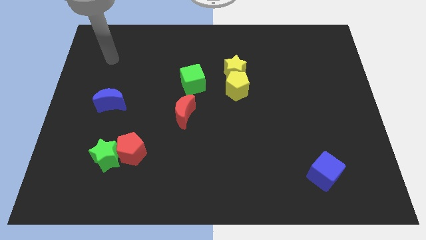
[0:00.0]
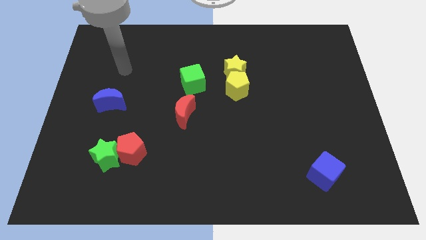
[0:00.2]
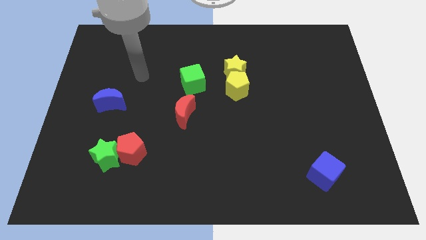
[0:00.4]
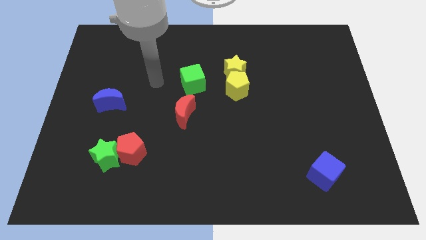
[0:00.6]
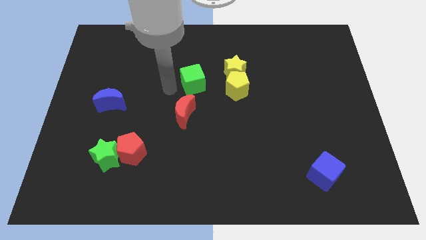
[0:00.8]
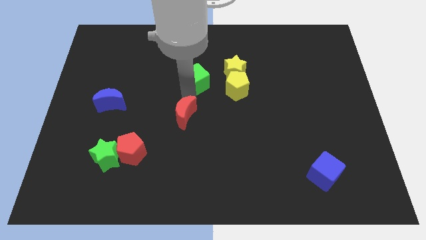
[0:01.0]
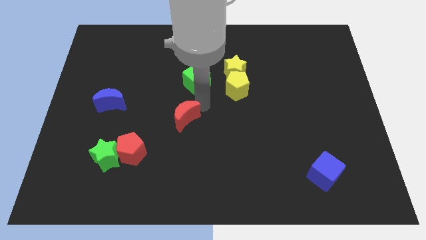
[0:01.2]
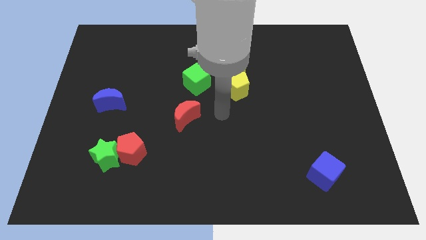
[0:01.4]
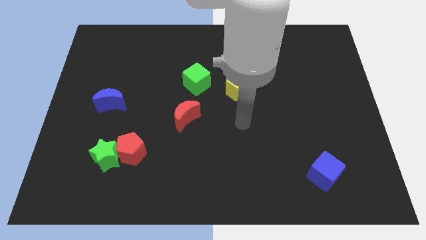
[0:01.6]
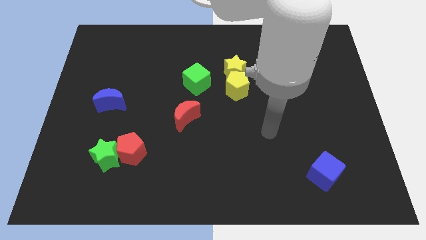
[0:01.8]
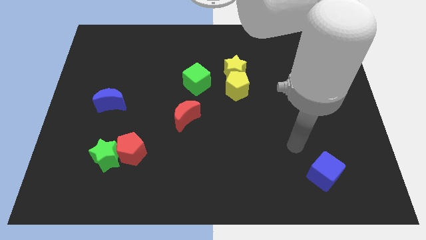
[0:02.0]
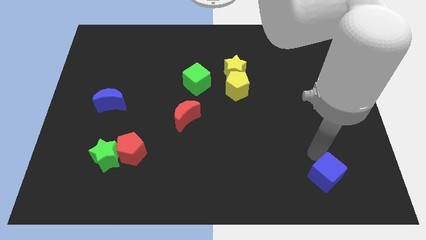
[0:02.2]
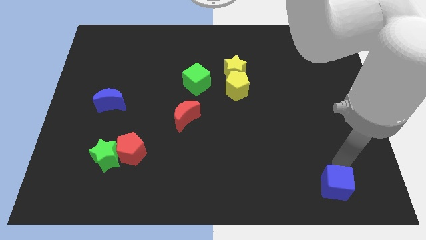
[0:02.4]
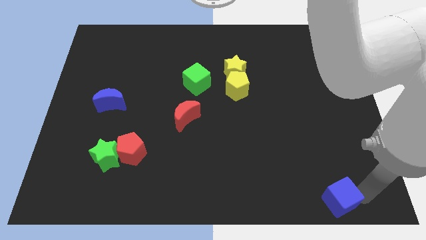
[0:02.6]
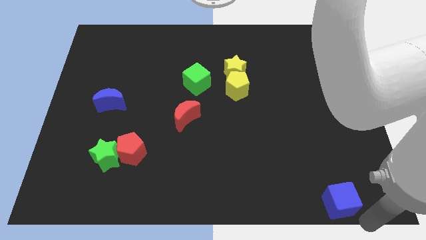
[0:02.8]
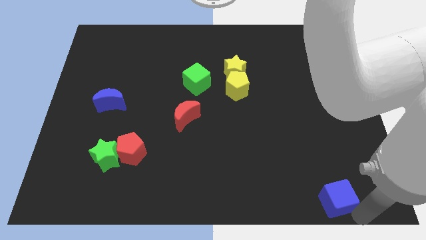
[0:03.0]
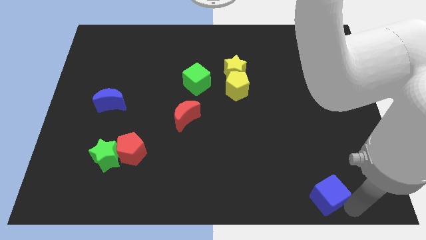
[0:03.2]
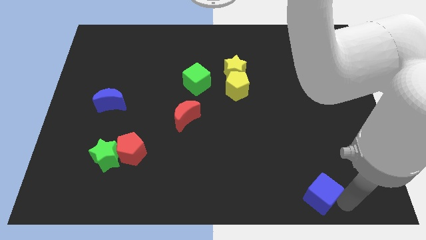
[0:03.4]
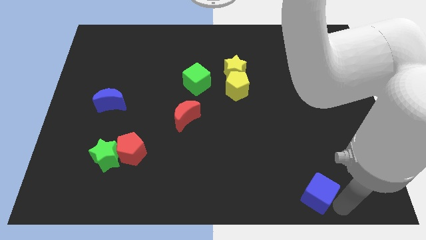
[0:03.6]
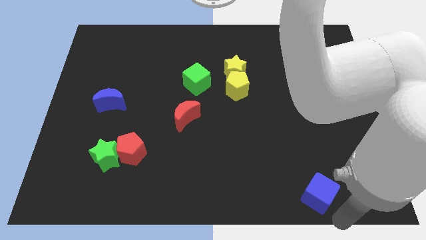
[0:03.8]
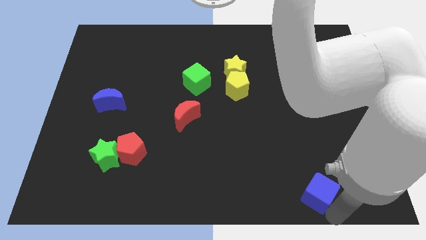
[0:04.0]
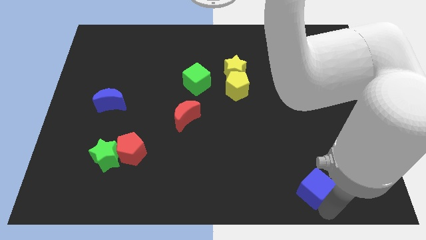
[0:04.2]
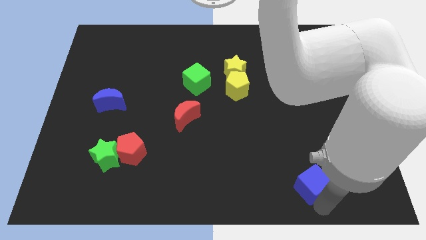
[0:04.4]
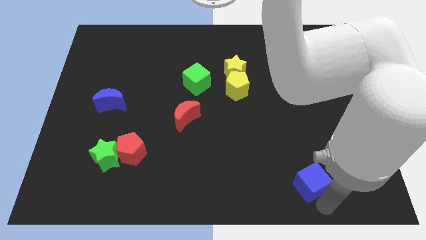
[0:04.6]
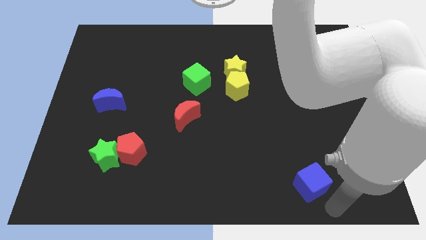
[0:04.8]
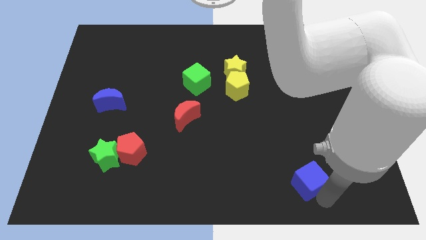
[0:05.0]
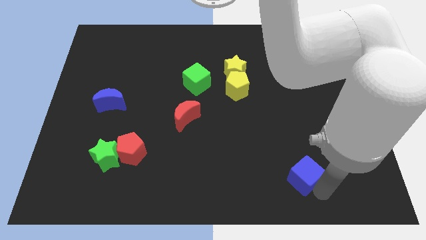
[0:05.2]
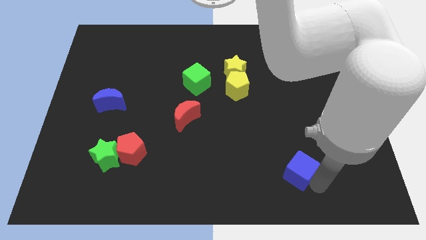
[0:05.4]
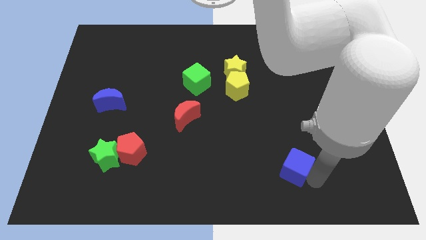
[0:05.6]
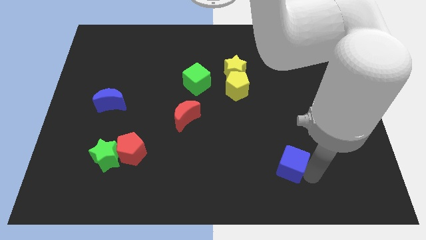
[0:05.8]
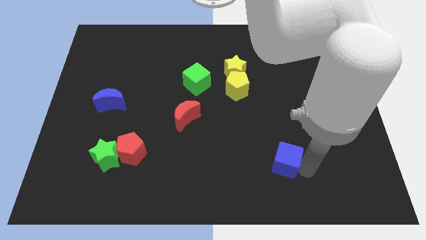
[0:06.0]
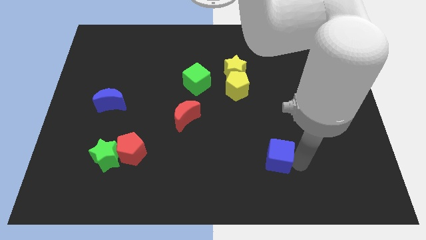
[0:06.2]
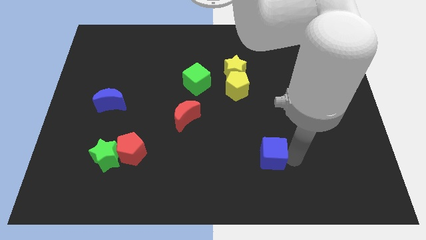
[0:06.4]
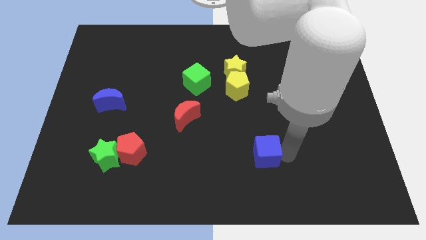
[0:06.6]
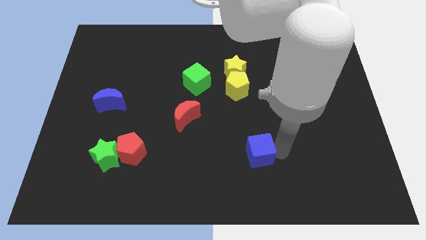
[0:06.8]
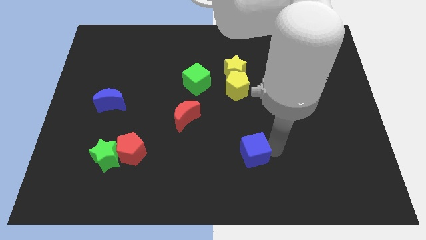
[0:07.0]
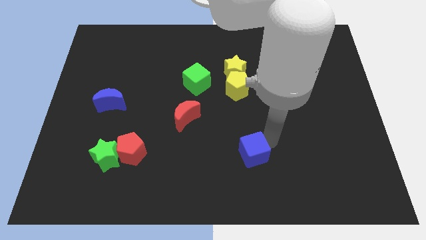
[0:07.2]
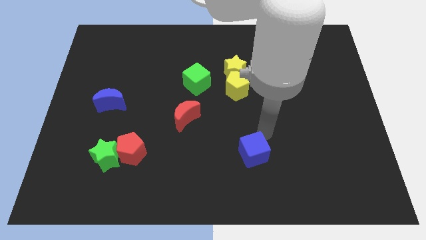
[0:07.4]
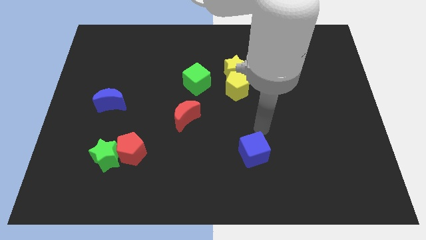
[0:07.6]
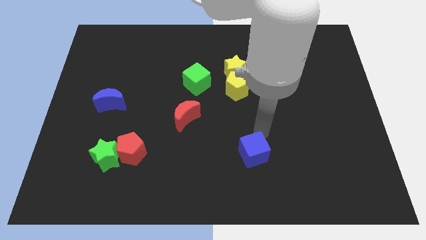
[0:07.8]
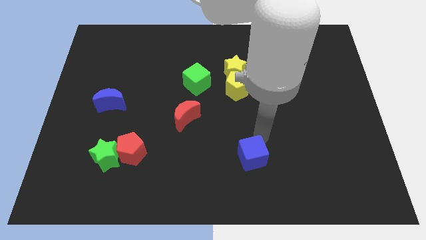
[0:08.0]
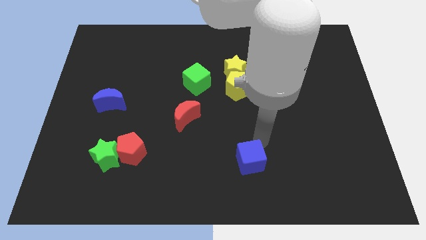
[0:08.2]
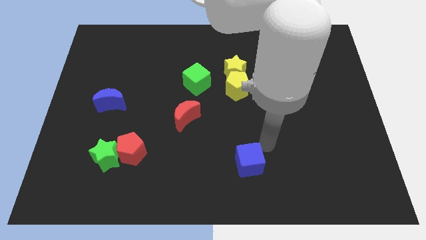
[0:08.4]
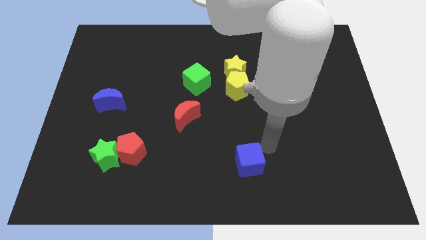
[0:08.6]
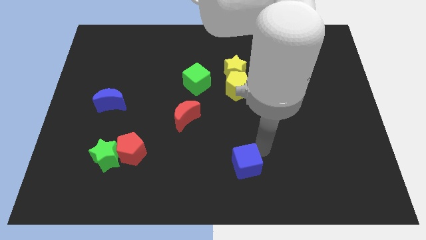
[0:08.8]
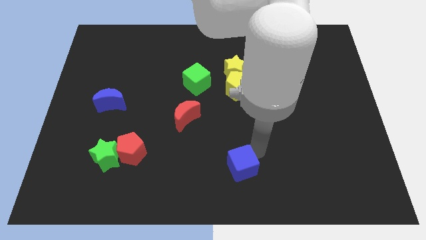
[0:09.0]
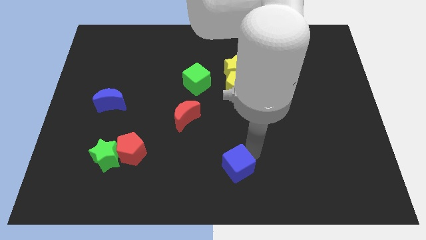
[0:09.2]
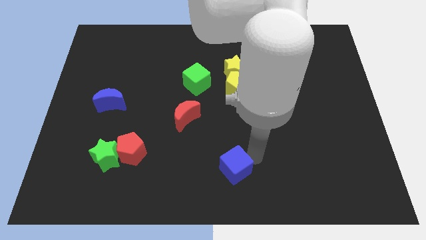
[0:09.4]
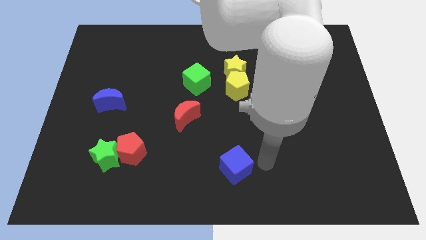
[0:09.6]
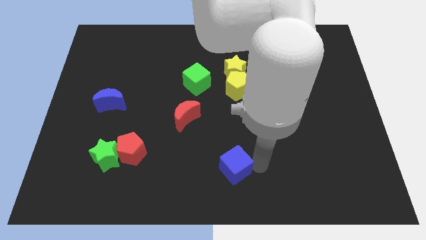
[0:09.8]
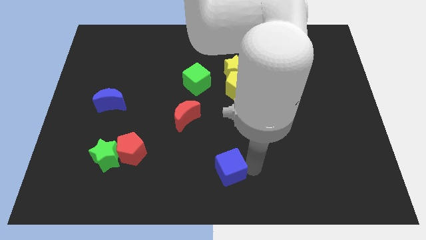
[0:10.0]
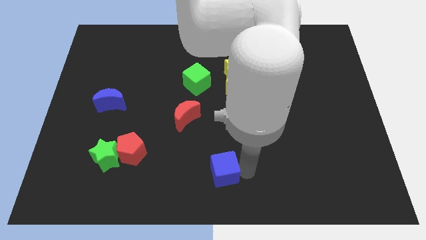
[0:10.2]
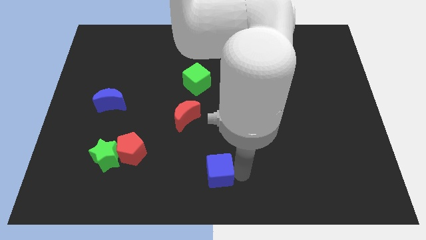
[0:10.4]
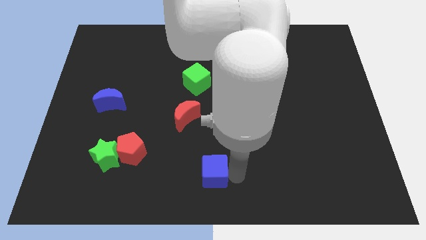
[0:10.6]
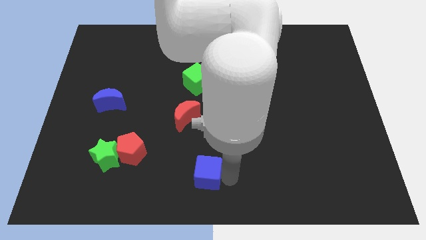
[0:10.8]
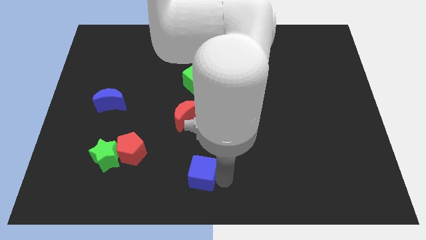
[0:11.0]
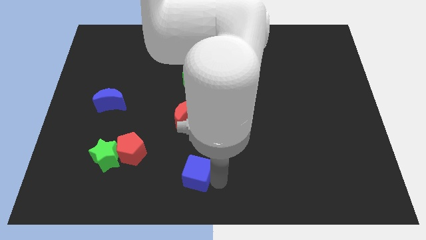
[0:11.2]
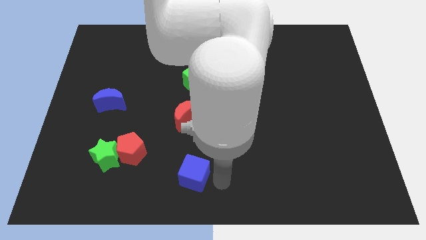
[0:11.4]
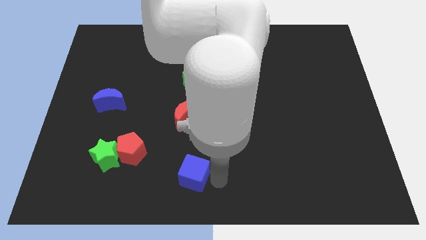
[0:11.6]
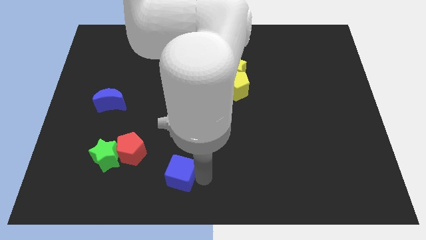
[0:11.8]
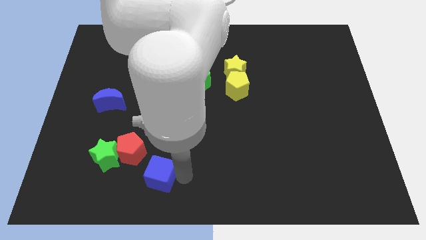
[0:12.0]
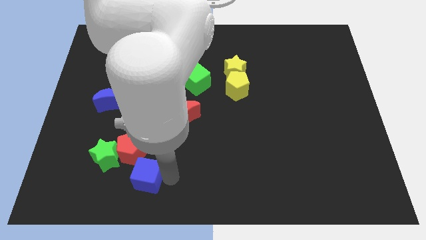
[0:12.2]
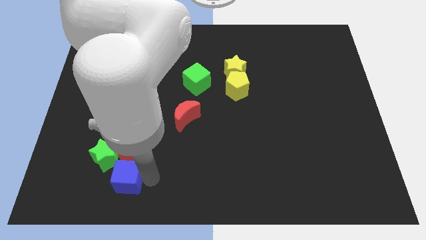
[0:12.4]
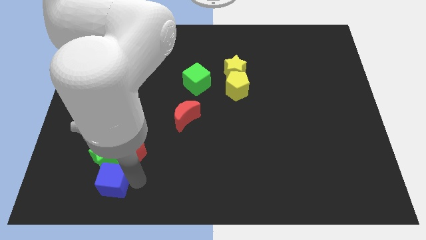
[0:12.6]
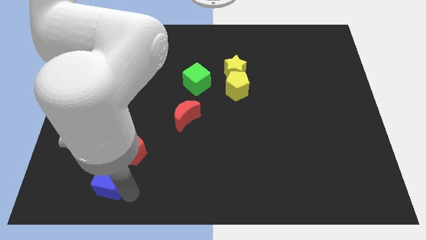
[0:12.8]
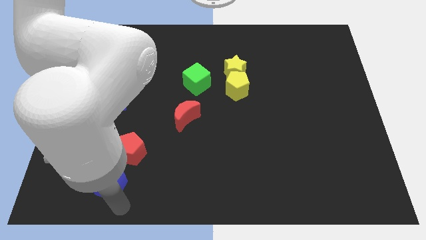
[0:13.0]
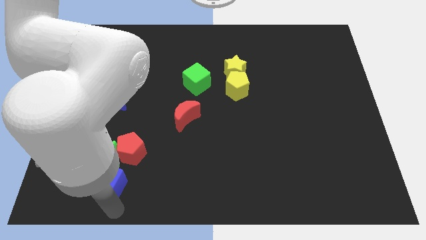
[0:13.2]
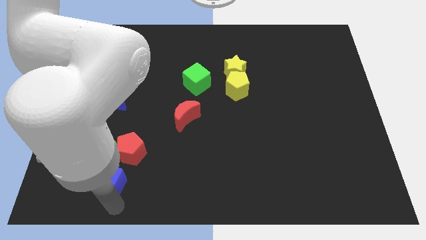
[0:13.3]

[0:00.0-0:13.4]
move the blue cube next to the green star
